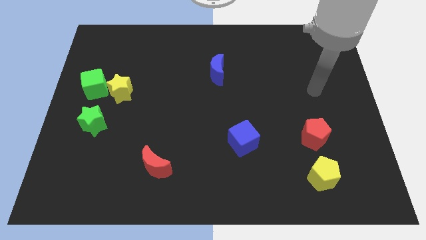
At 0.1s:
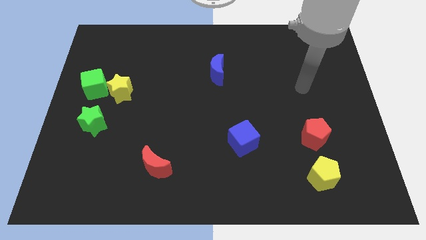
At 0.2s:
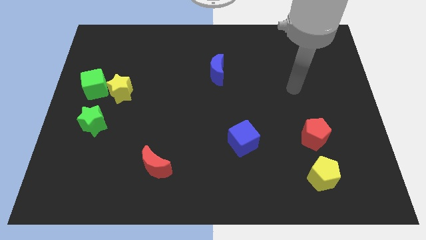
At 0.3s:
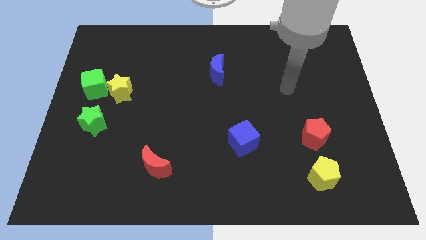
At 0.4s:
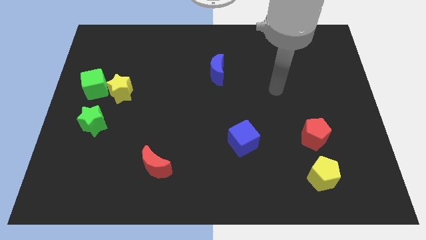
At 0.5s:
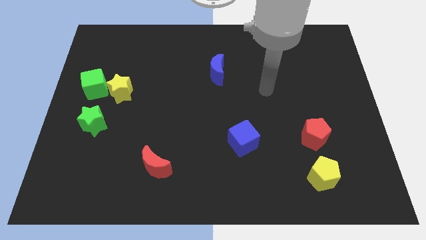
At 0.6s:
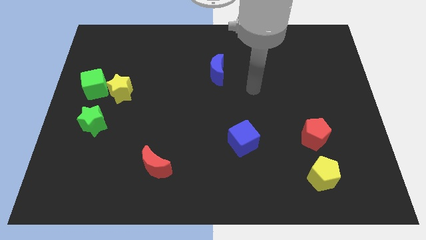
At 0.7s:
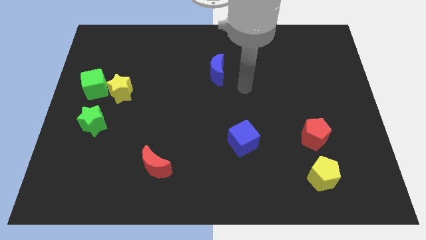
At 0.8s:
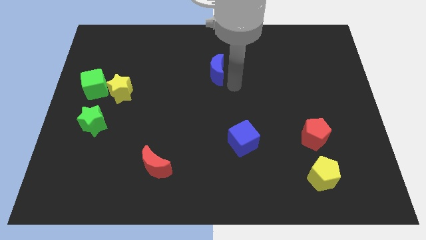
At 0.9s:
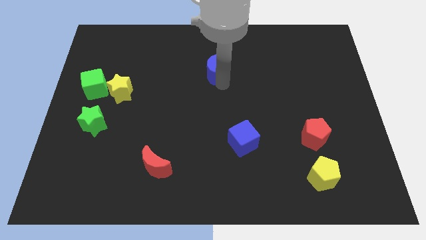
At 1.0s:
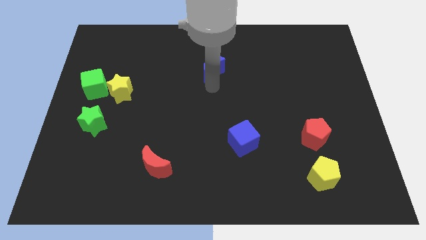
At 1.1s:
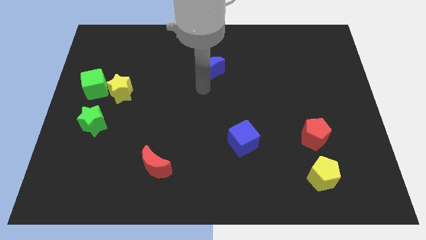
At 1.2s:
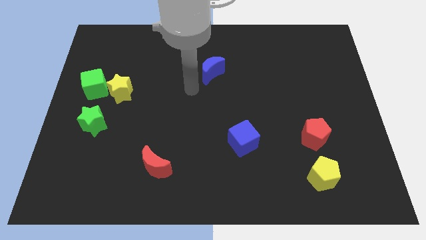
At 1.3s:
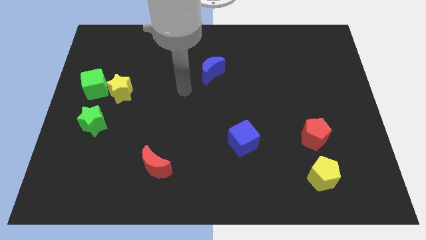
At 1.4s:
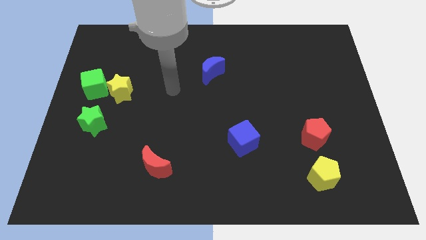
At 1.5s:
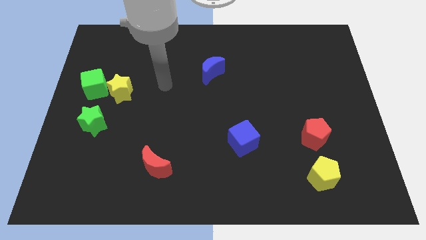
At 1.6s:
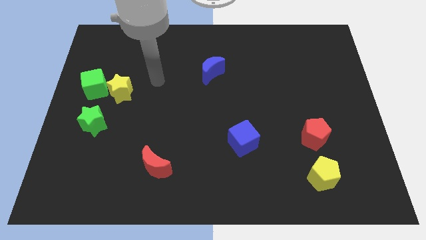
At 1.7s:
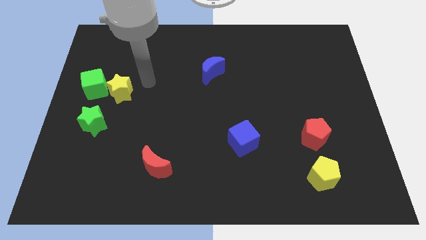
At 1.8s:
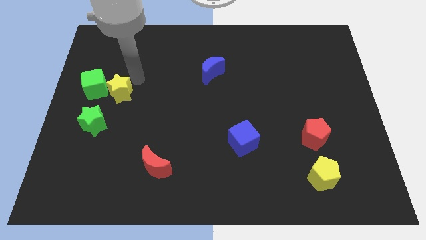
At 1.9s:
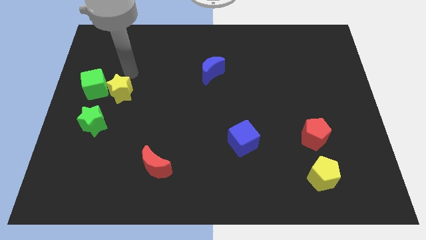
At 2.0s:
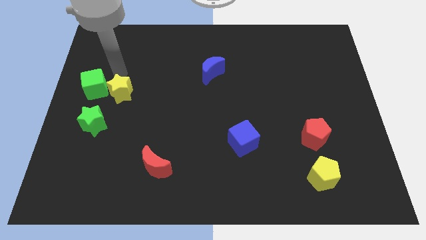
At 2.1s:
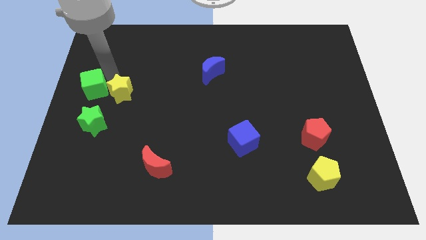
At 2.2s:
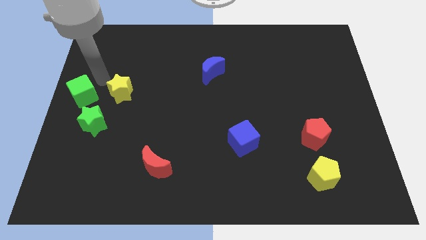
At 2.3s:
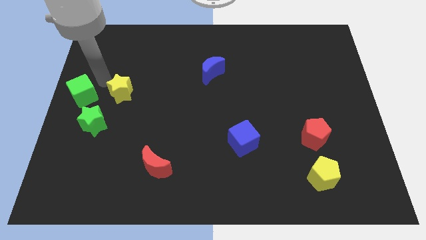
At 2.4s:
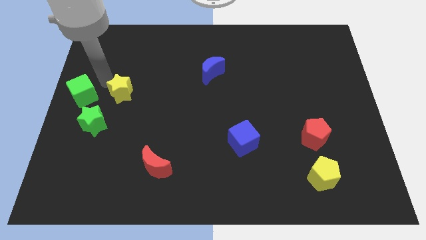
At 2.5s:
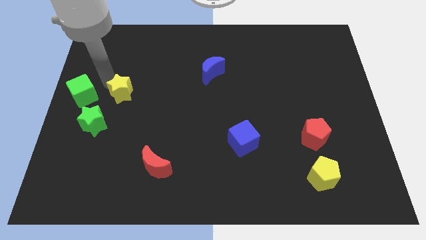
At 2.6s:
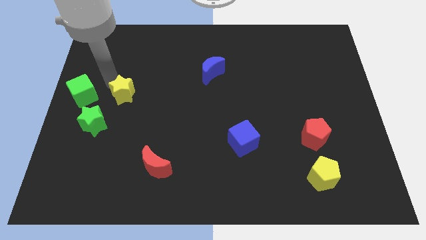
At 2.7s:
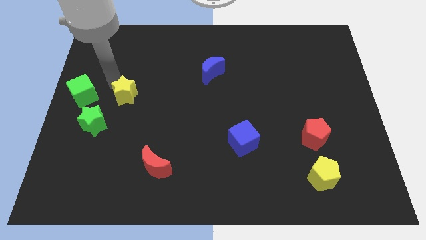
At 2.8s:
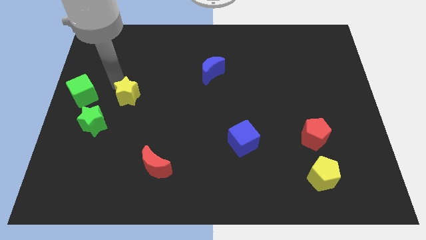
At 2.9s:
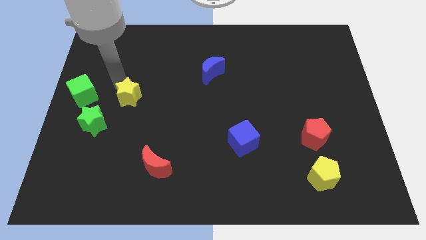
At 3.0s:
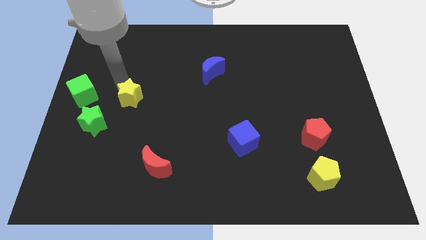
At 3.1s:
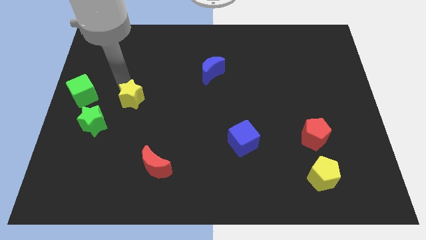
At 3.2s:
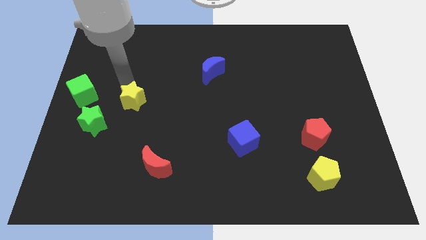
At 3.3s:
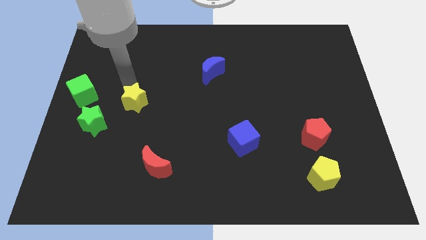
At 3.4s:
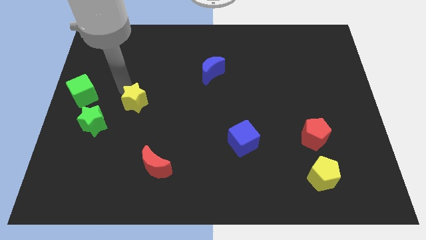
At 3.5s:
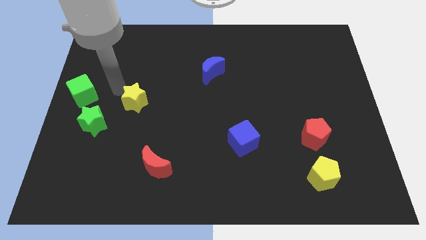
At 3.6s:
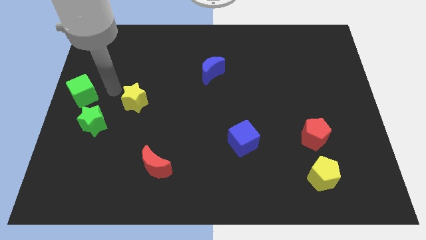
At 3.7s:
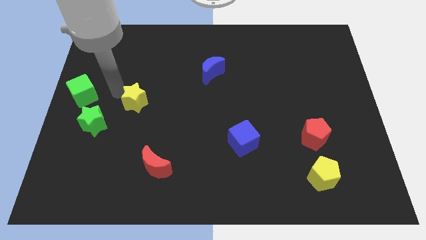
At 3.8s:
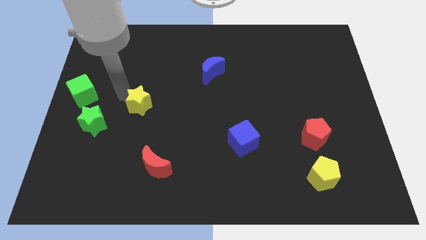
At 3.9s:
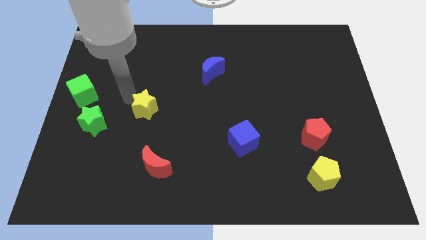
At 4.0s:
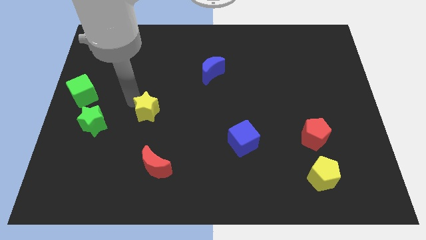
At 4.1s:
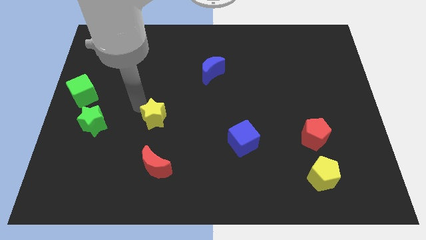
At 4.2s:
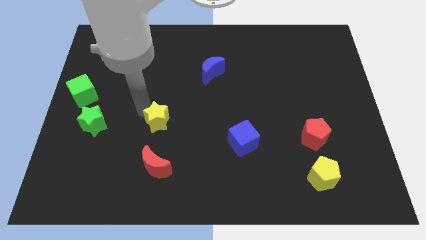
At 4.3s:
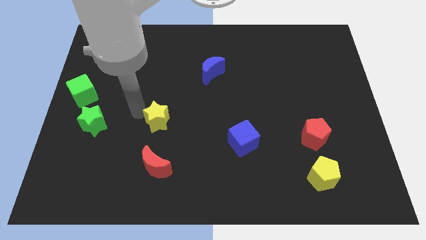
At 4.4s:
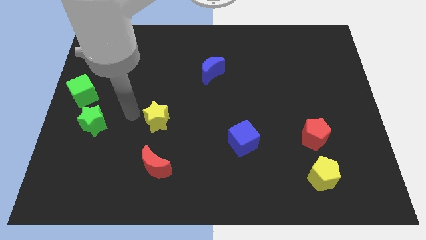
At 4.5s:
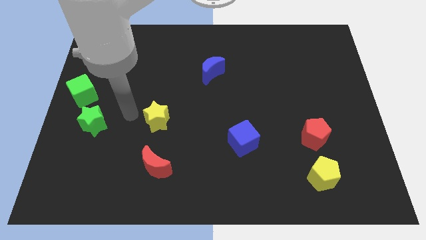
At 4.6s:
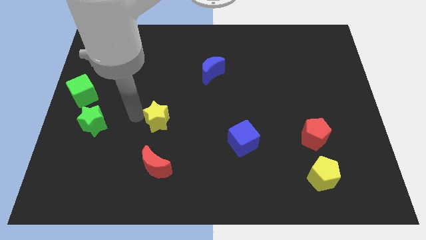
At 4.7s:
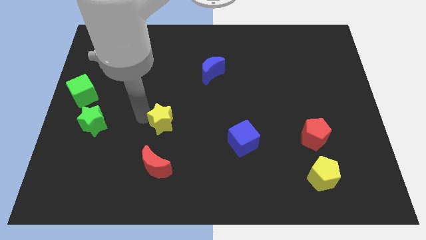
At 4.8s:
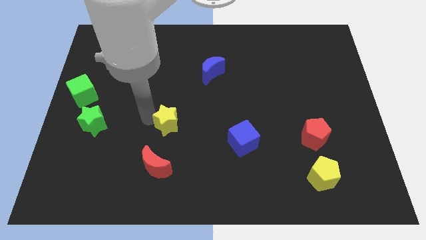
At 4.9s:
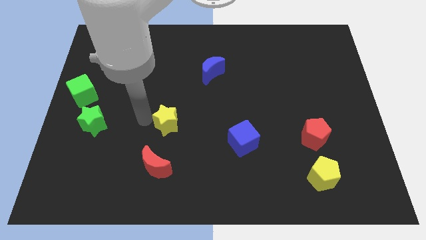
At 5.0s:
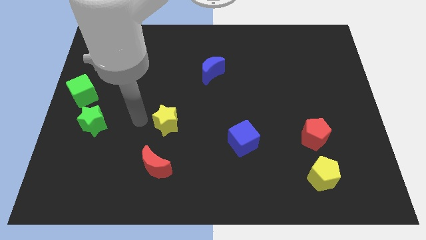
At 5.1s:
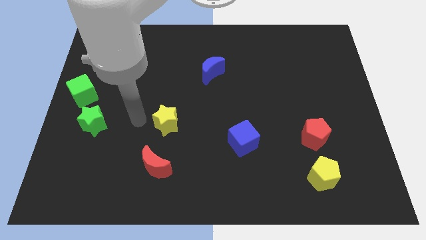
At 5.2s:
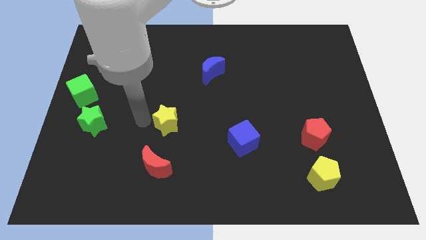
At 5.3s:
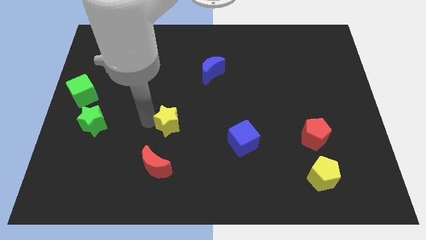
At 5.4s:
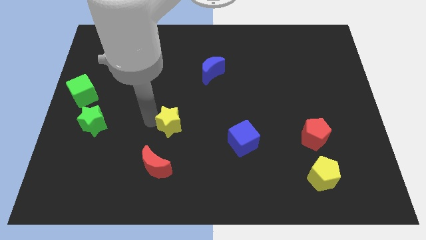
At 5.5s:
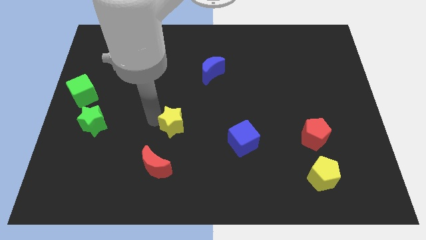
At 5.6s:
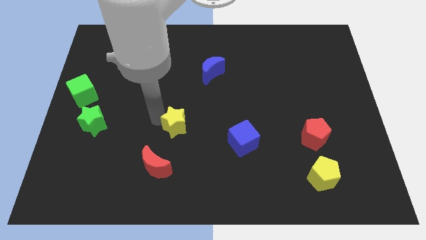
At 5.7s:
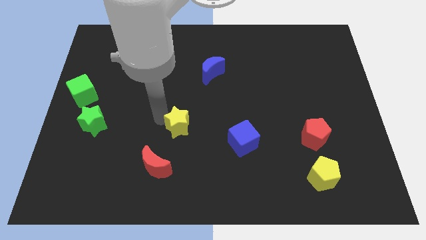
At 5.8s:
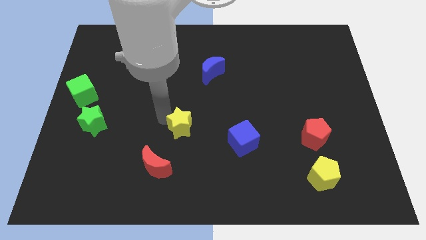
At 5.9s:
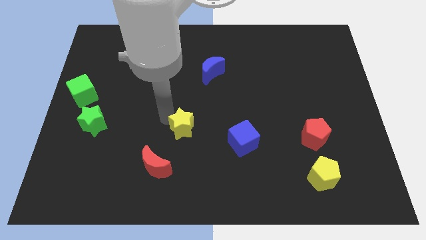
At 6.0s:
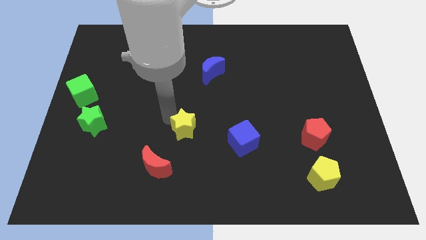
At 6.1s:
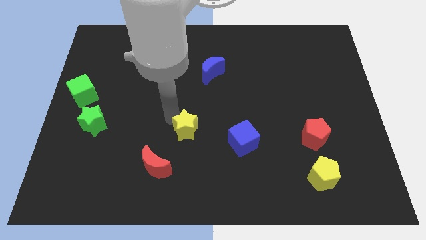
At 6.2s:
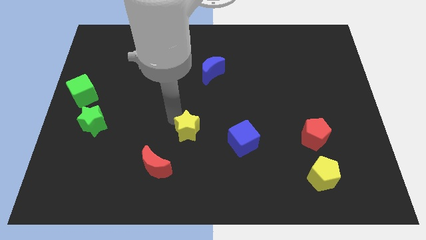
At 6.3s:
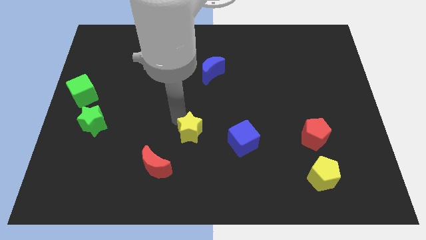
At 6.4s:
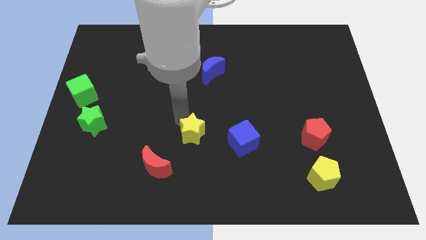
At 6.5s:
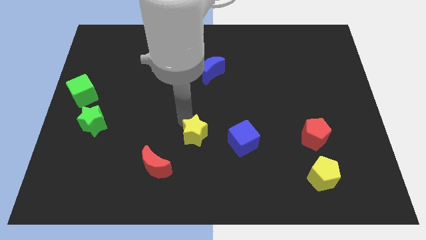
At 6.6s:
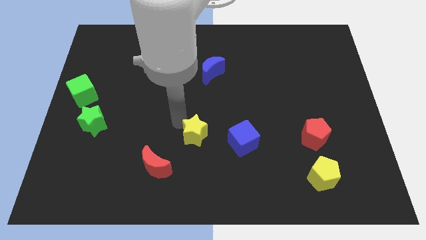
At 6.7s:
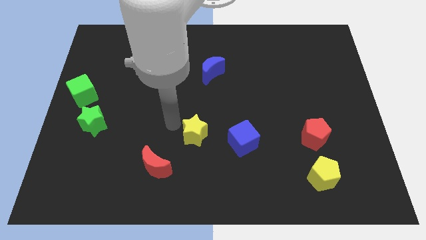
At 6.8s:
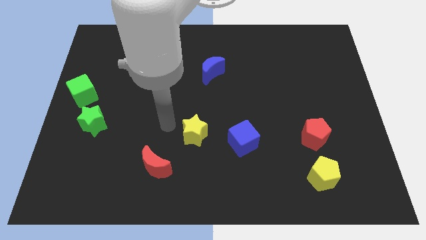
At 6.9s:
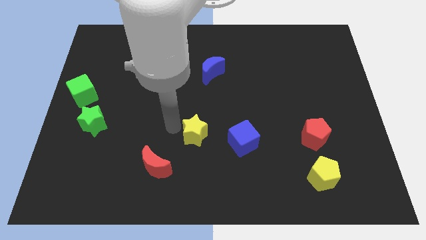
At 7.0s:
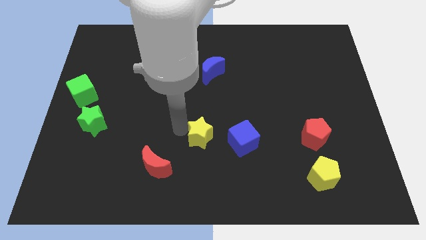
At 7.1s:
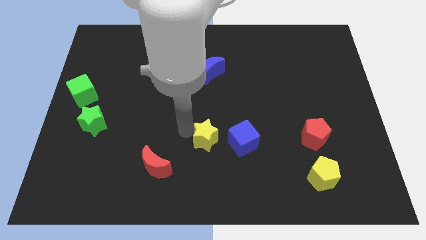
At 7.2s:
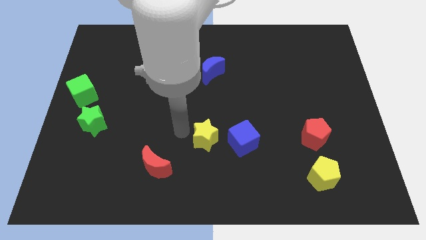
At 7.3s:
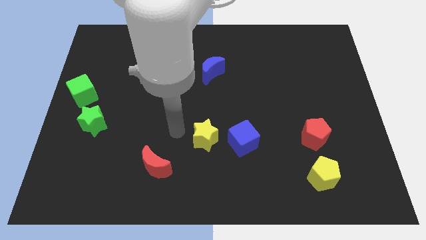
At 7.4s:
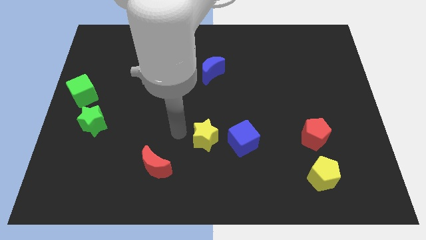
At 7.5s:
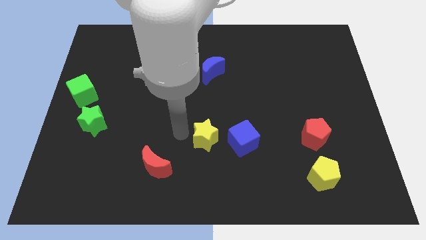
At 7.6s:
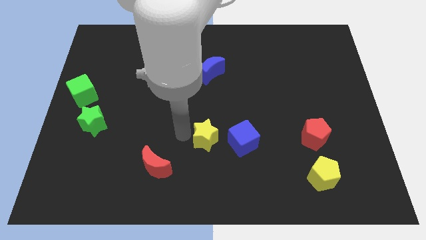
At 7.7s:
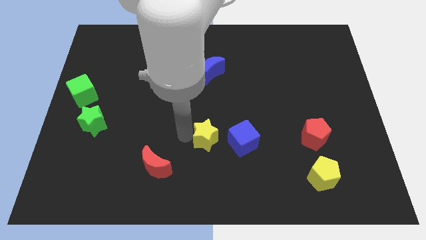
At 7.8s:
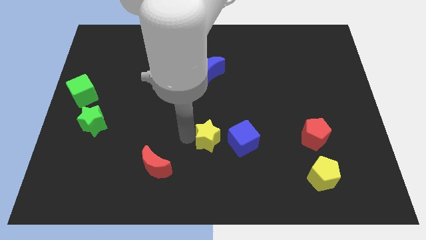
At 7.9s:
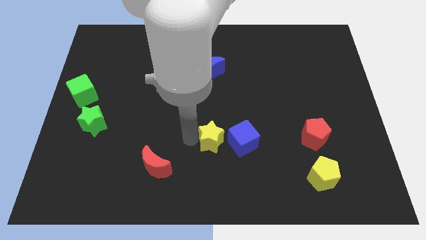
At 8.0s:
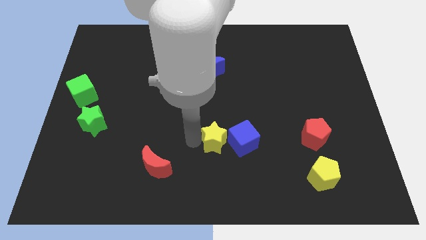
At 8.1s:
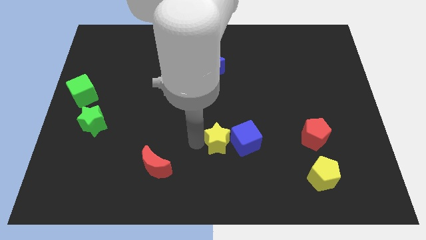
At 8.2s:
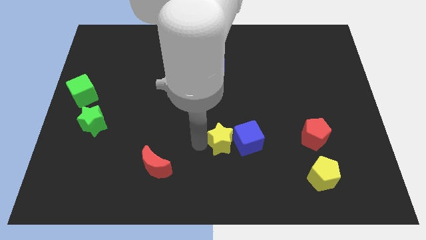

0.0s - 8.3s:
push the yellow star close to the blue cube
